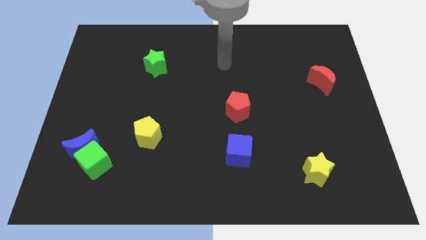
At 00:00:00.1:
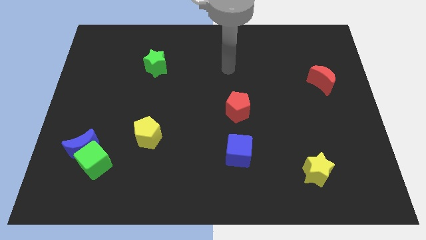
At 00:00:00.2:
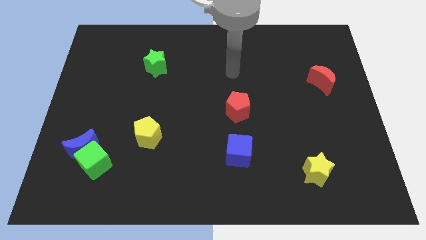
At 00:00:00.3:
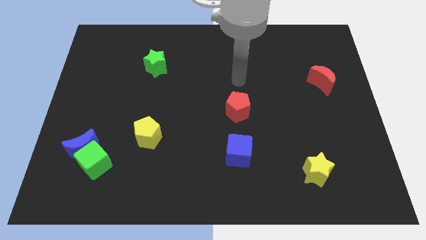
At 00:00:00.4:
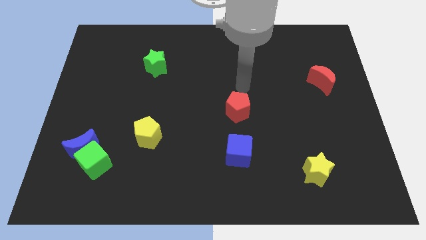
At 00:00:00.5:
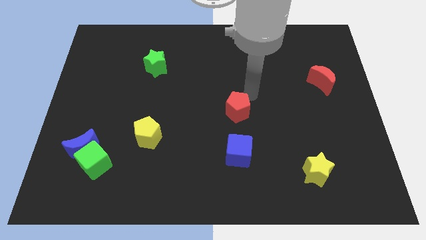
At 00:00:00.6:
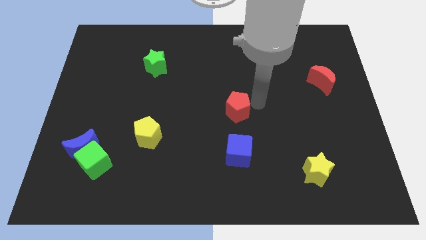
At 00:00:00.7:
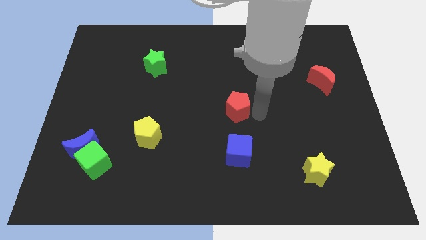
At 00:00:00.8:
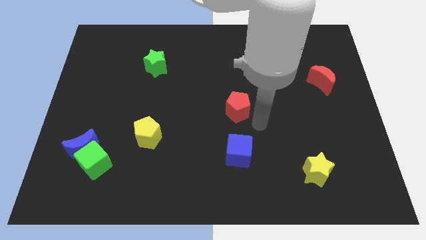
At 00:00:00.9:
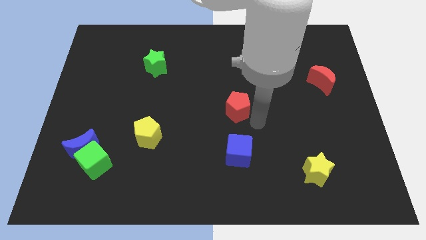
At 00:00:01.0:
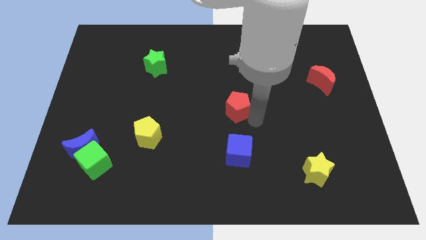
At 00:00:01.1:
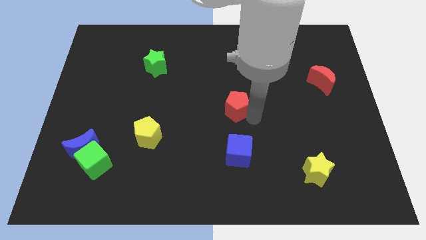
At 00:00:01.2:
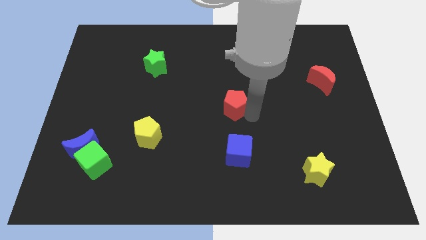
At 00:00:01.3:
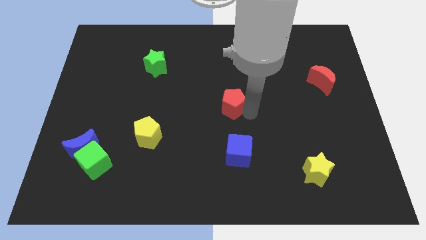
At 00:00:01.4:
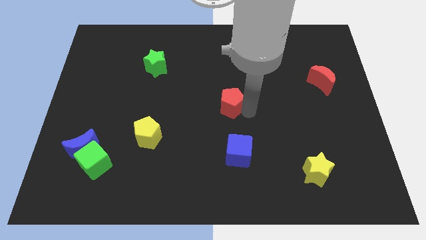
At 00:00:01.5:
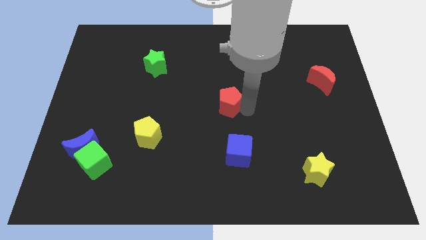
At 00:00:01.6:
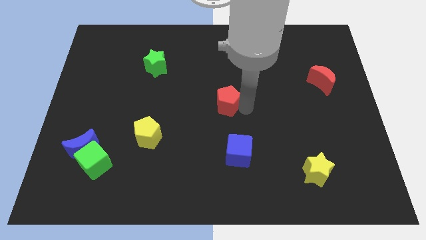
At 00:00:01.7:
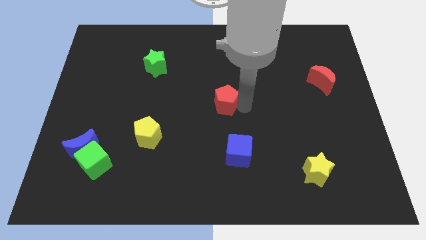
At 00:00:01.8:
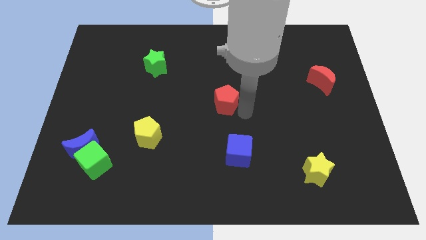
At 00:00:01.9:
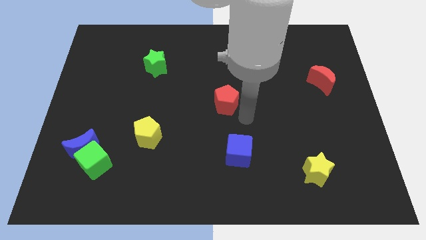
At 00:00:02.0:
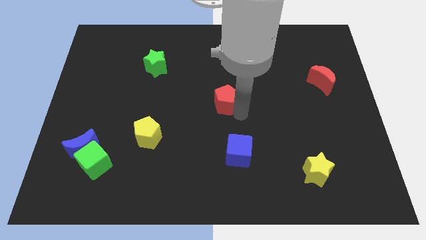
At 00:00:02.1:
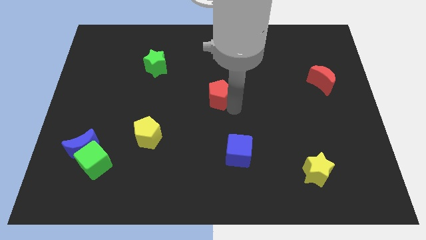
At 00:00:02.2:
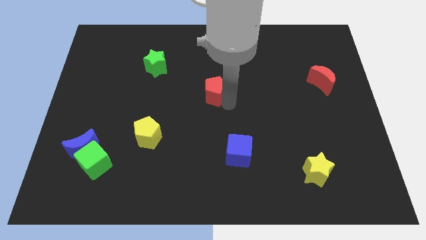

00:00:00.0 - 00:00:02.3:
move the red pentagon a little bit upwards and left diagonally

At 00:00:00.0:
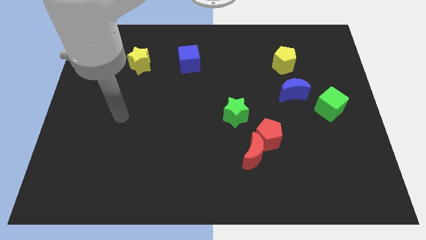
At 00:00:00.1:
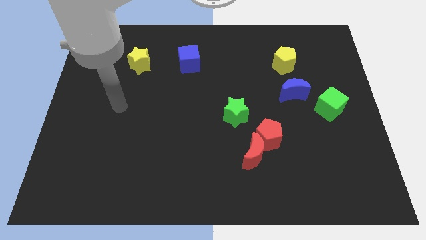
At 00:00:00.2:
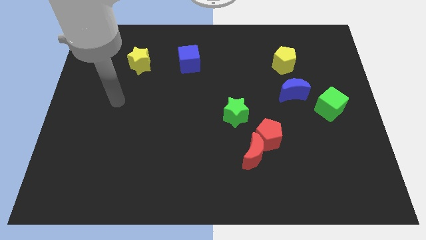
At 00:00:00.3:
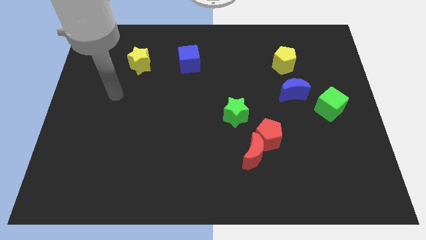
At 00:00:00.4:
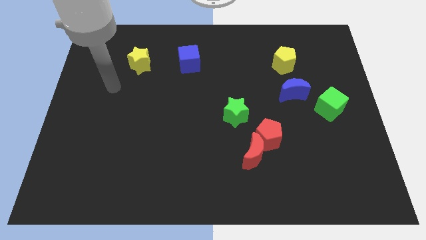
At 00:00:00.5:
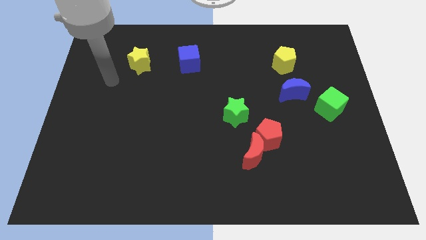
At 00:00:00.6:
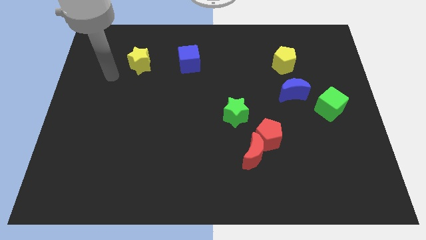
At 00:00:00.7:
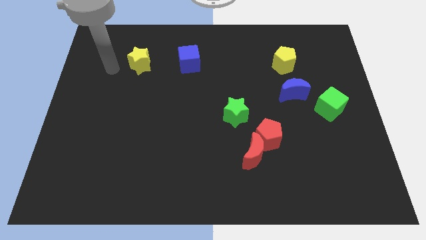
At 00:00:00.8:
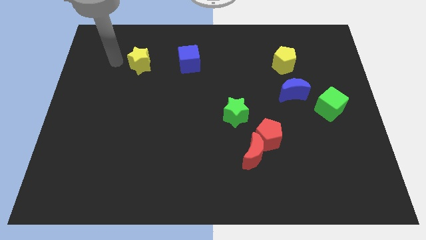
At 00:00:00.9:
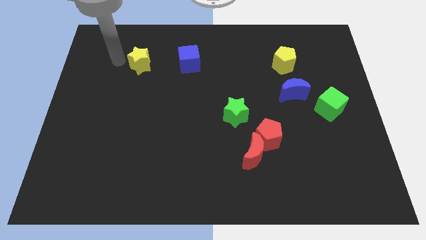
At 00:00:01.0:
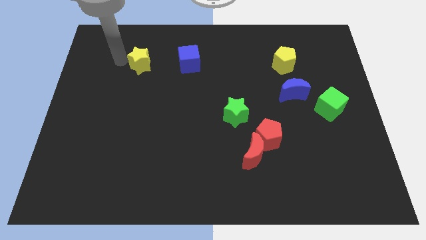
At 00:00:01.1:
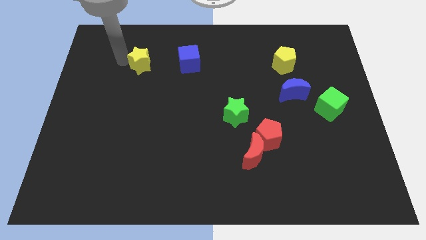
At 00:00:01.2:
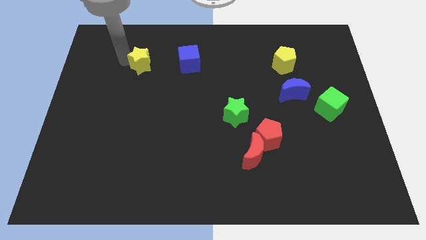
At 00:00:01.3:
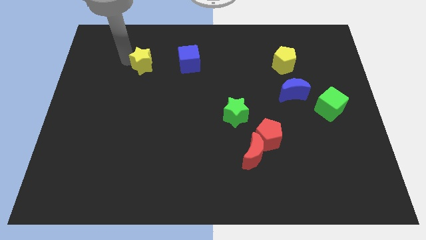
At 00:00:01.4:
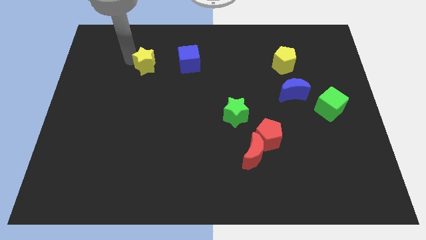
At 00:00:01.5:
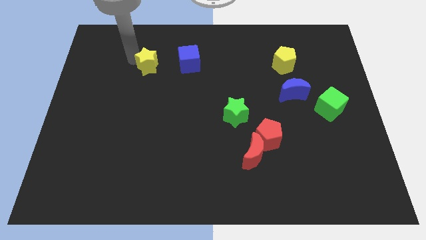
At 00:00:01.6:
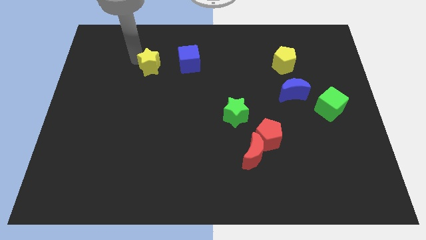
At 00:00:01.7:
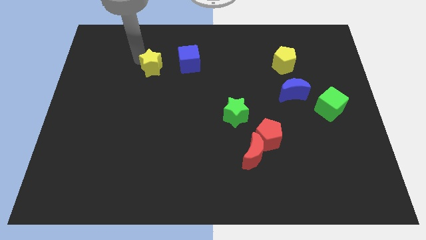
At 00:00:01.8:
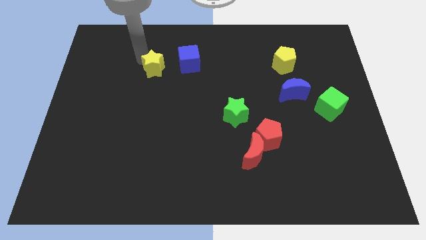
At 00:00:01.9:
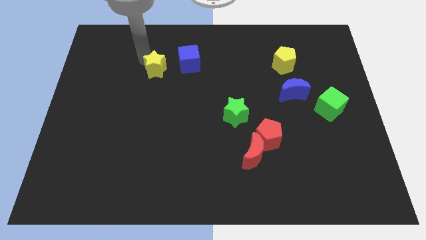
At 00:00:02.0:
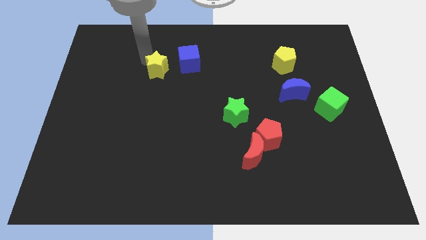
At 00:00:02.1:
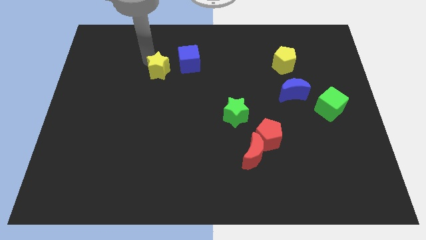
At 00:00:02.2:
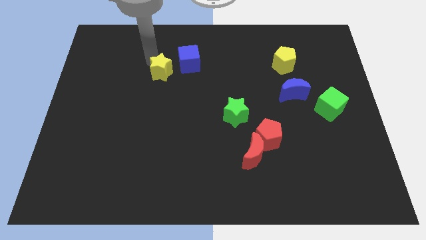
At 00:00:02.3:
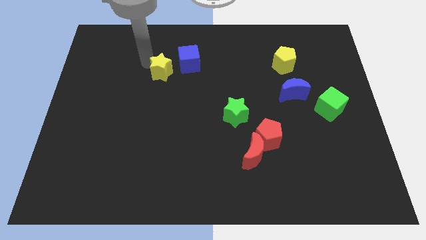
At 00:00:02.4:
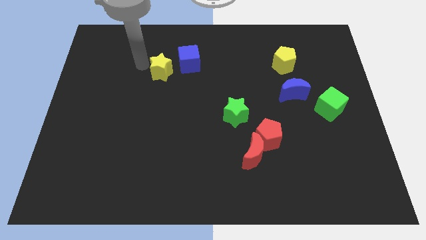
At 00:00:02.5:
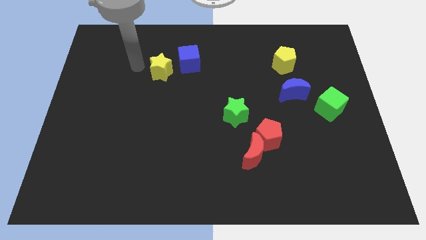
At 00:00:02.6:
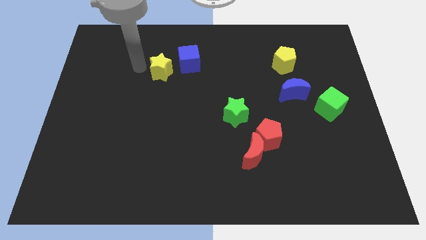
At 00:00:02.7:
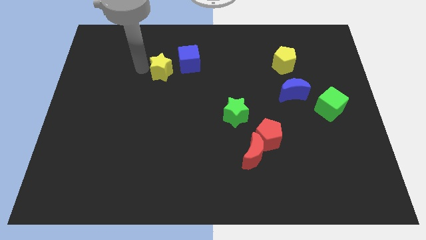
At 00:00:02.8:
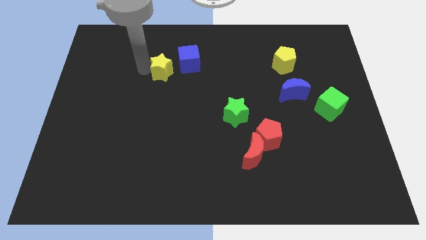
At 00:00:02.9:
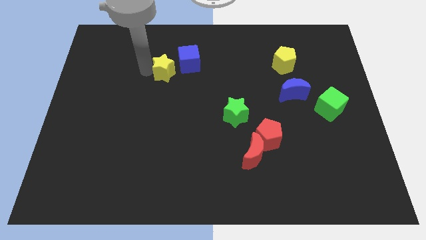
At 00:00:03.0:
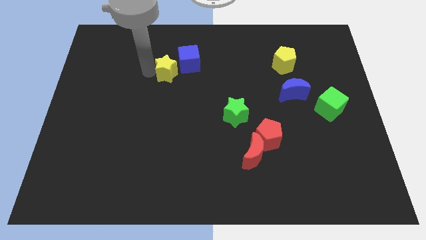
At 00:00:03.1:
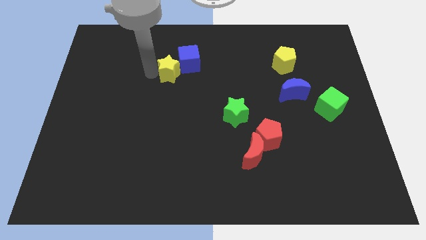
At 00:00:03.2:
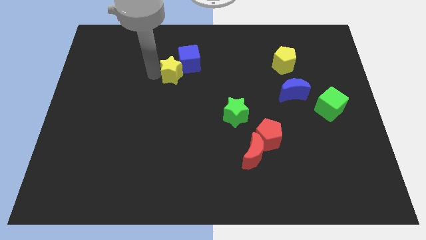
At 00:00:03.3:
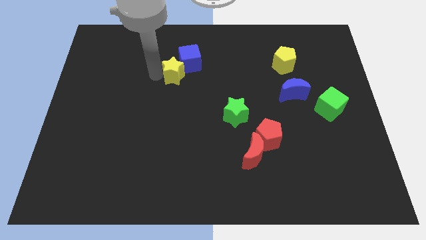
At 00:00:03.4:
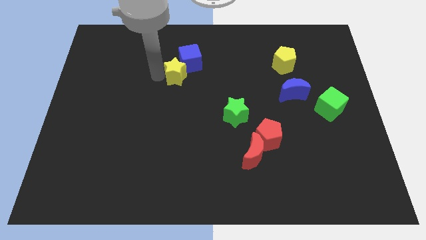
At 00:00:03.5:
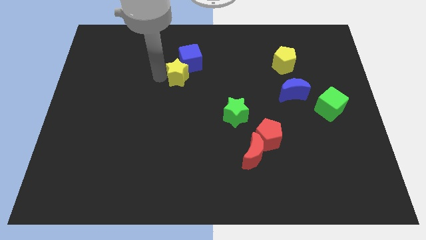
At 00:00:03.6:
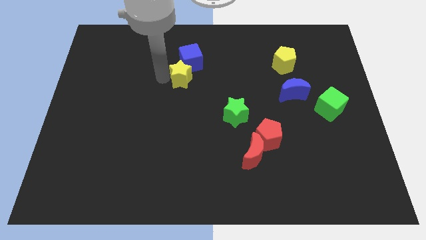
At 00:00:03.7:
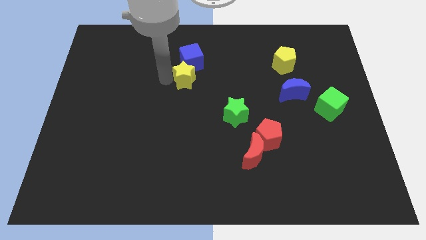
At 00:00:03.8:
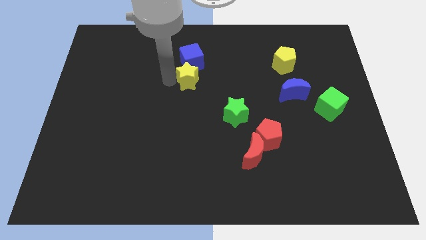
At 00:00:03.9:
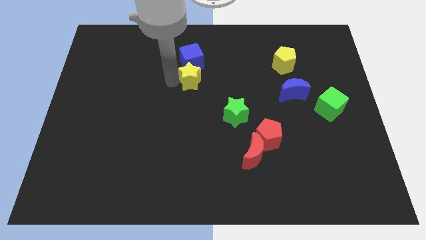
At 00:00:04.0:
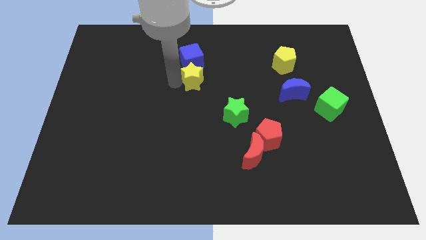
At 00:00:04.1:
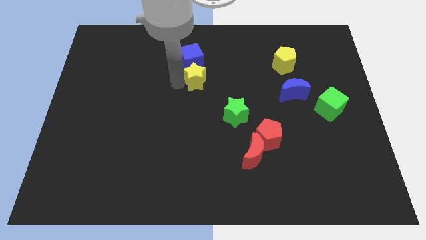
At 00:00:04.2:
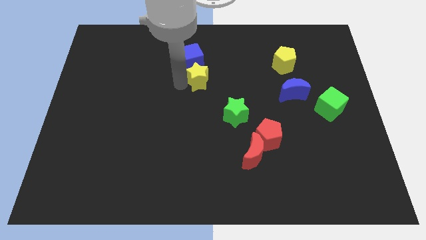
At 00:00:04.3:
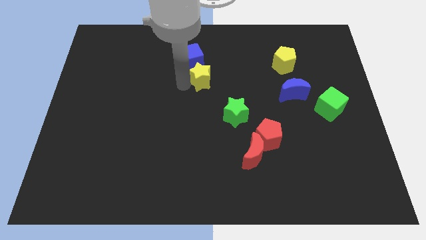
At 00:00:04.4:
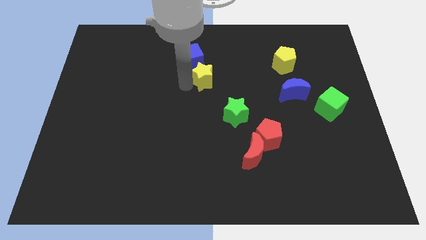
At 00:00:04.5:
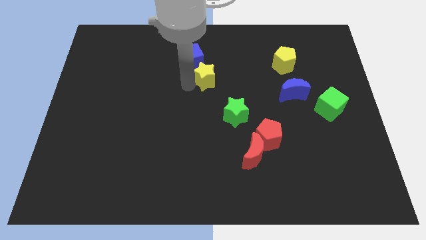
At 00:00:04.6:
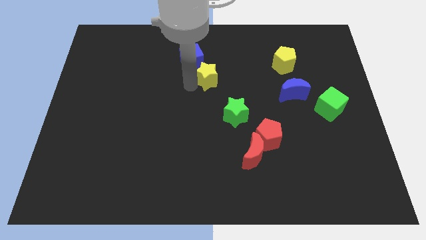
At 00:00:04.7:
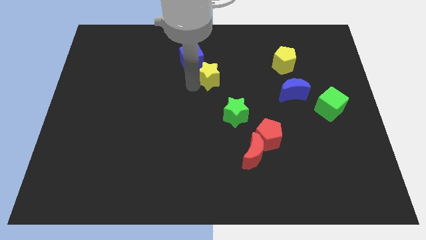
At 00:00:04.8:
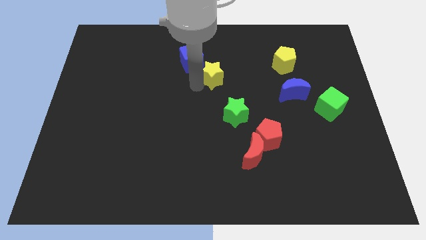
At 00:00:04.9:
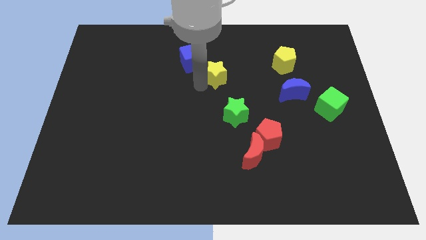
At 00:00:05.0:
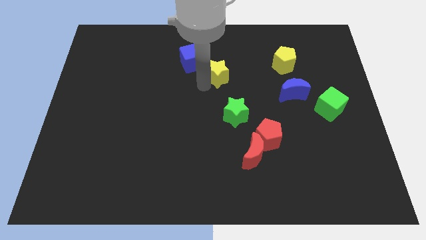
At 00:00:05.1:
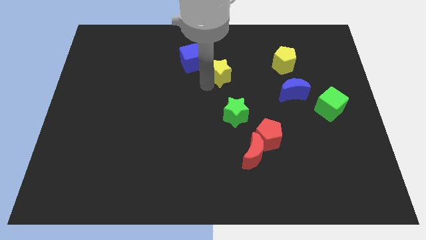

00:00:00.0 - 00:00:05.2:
push the yellow star right
